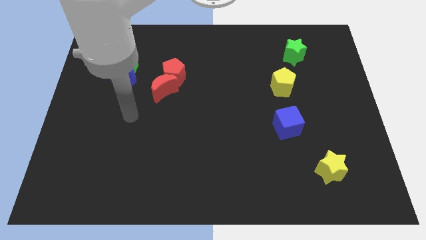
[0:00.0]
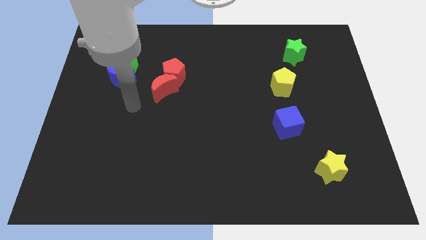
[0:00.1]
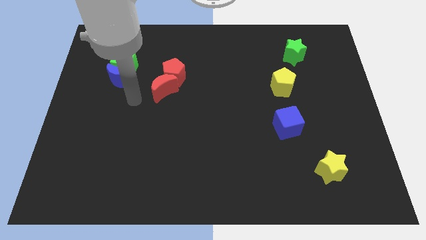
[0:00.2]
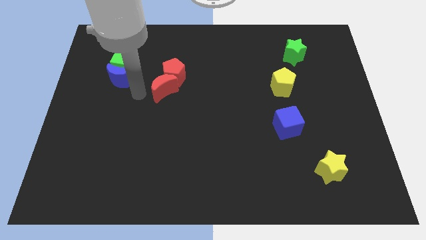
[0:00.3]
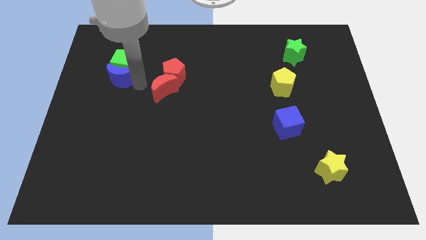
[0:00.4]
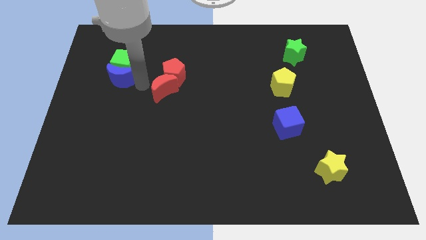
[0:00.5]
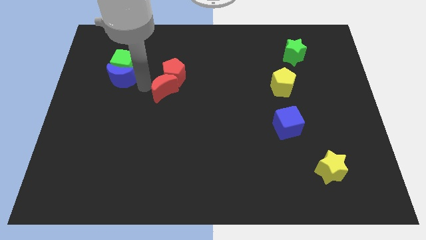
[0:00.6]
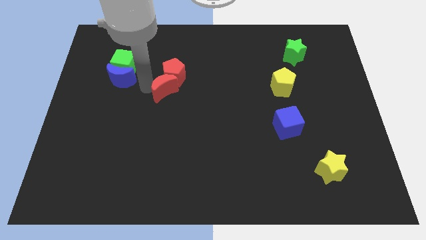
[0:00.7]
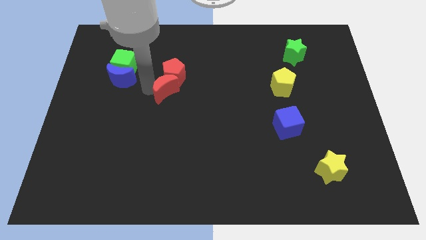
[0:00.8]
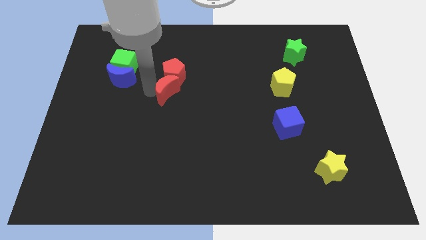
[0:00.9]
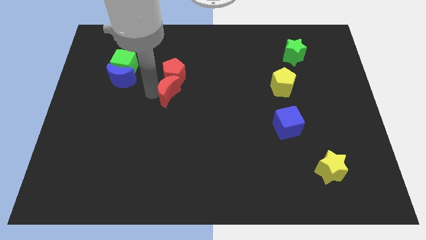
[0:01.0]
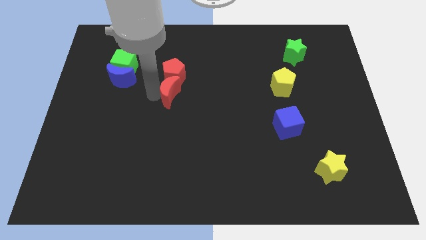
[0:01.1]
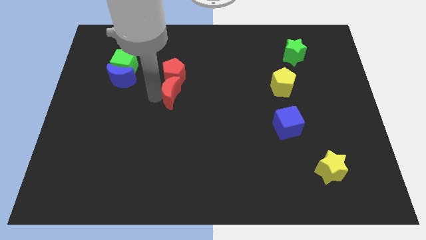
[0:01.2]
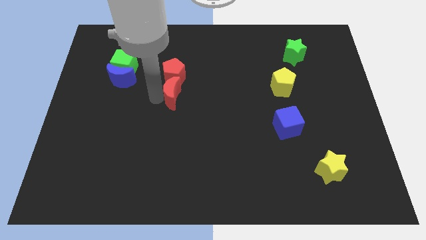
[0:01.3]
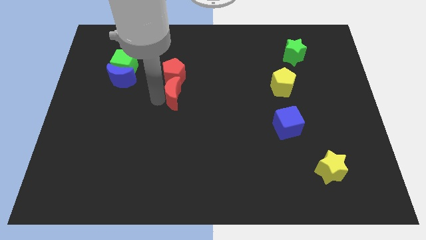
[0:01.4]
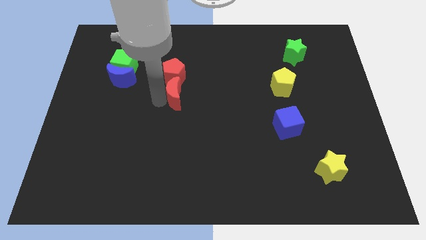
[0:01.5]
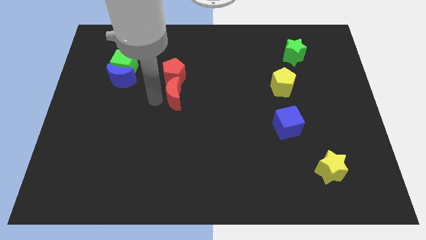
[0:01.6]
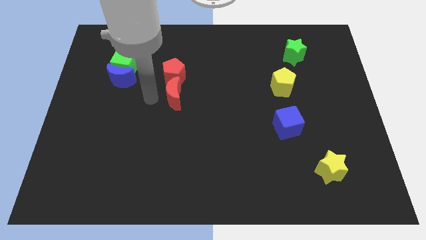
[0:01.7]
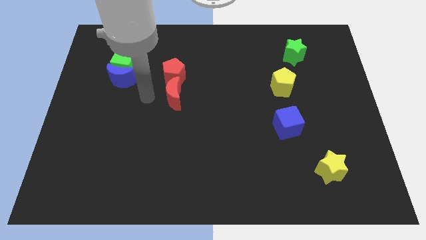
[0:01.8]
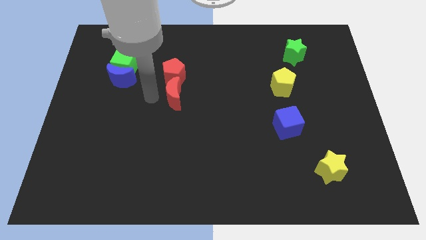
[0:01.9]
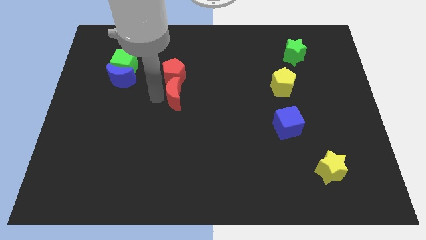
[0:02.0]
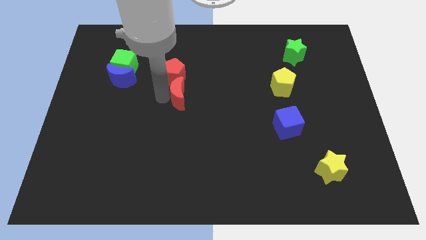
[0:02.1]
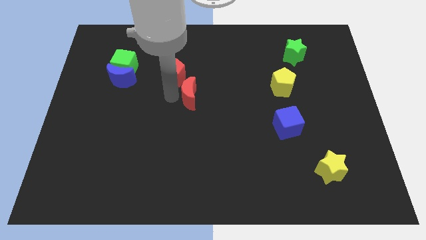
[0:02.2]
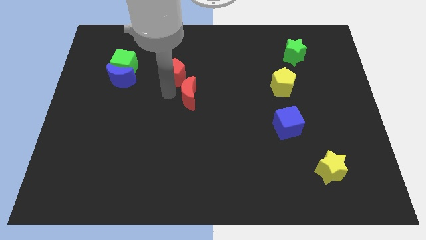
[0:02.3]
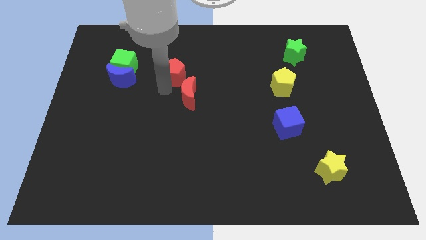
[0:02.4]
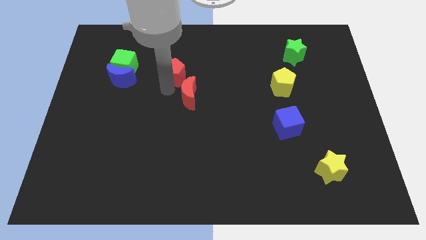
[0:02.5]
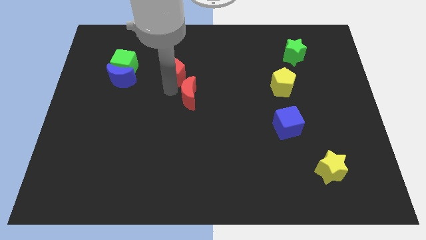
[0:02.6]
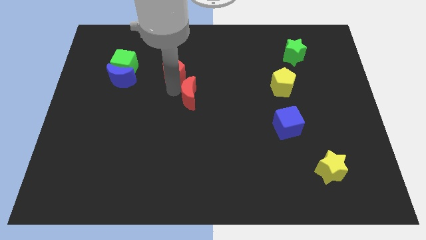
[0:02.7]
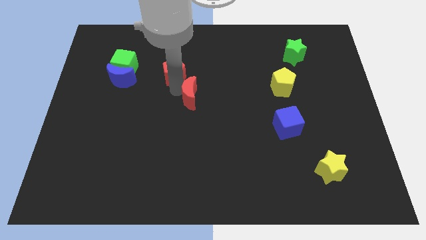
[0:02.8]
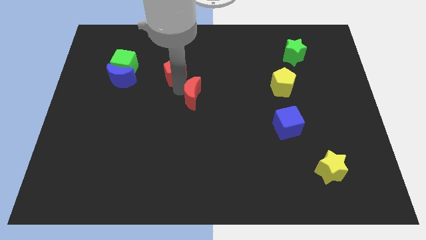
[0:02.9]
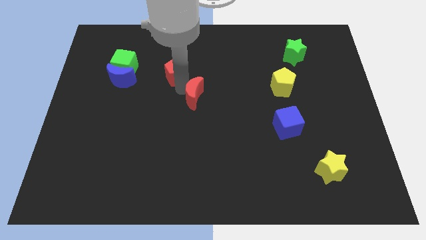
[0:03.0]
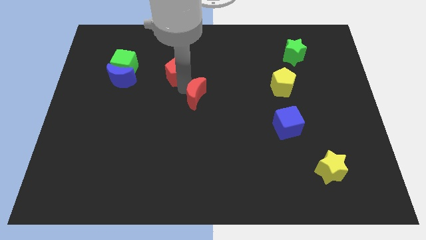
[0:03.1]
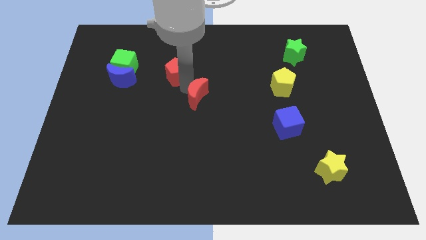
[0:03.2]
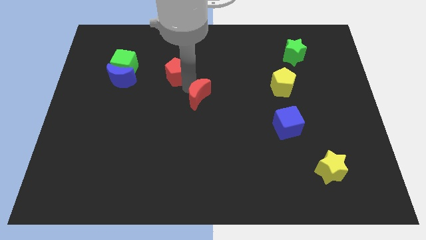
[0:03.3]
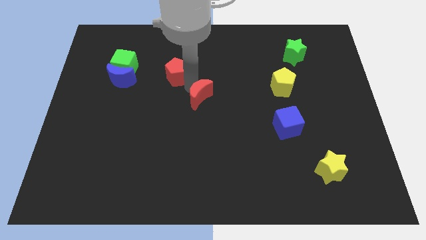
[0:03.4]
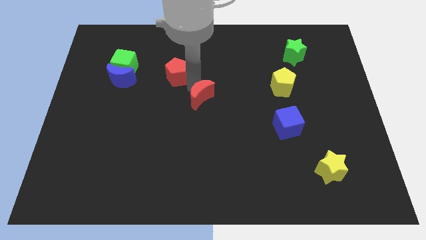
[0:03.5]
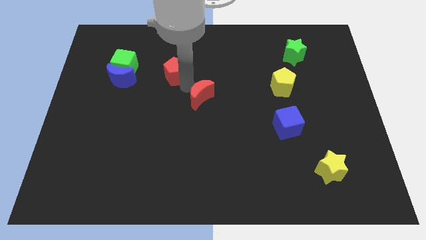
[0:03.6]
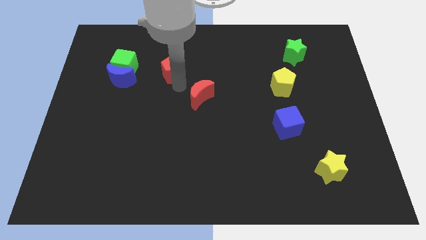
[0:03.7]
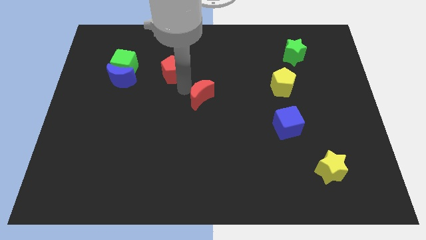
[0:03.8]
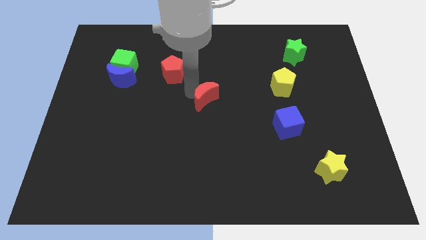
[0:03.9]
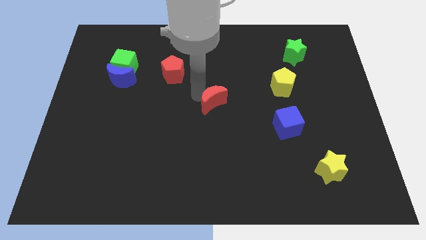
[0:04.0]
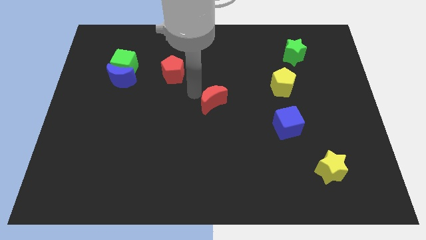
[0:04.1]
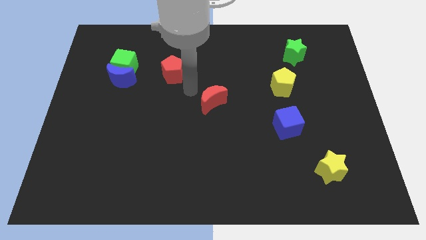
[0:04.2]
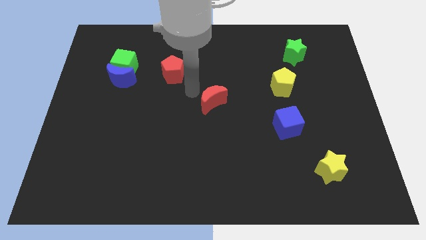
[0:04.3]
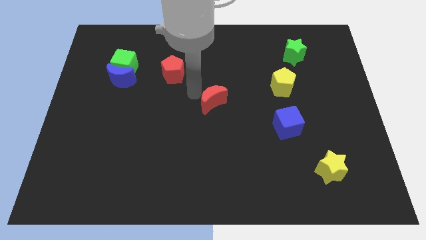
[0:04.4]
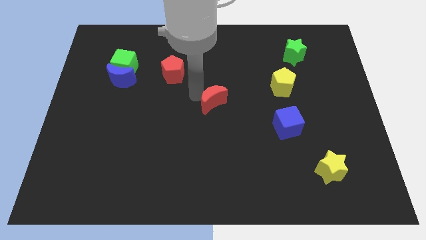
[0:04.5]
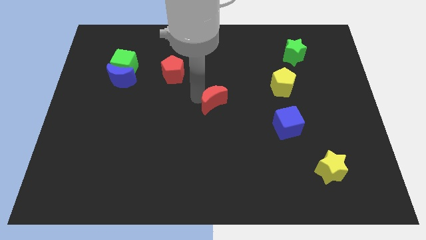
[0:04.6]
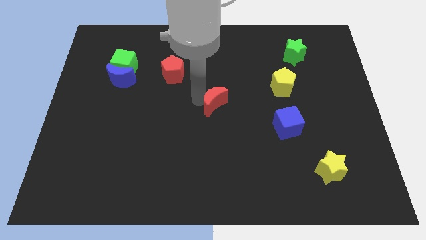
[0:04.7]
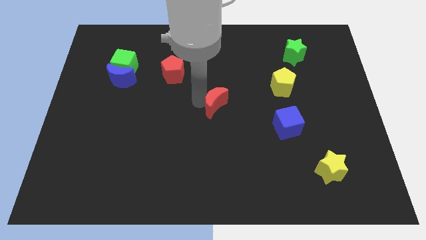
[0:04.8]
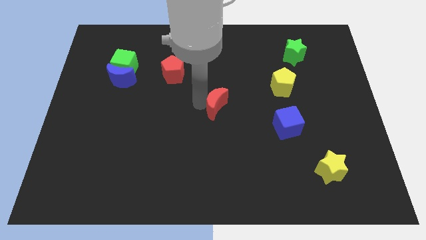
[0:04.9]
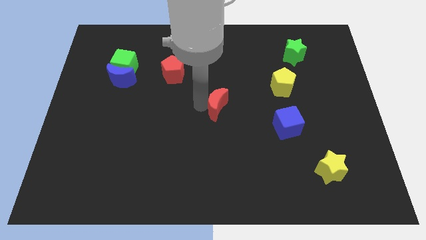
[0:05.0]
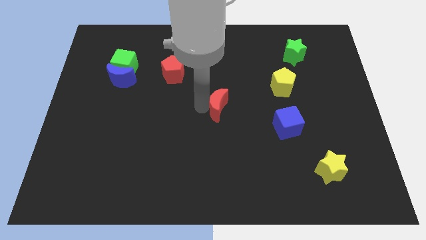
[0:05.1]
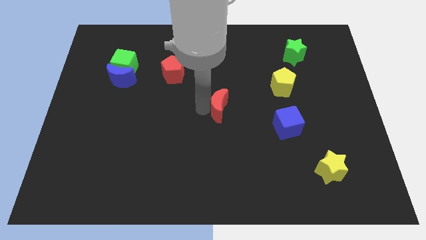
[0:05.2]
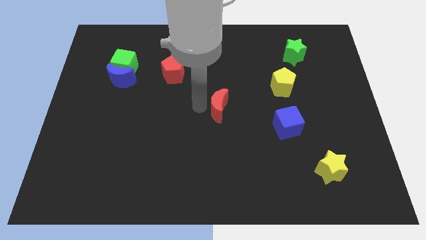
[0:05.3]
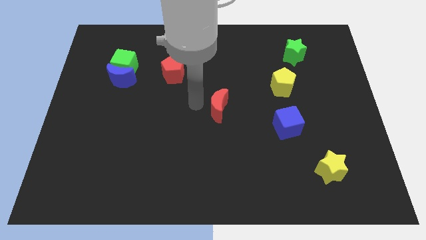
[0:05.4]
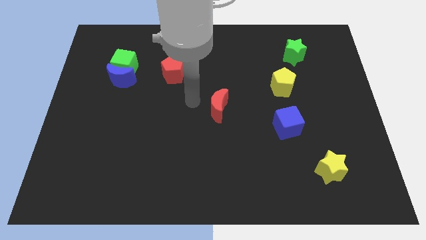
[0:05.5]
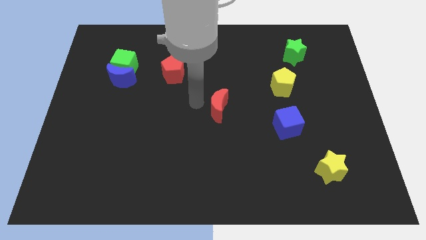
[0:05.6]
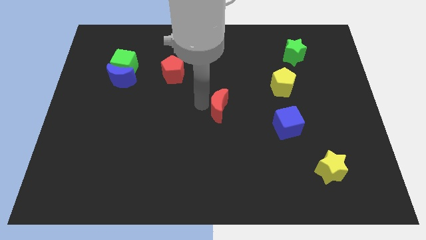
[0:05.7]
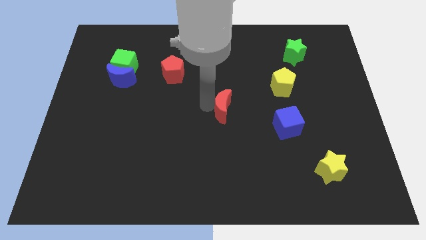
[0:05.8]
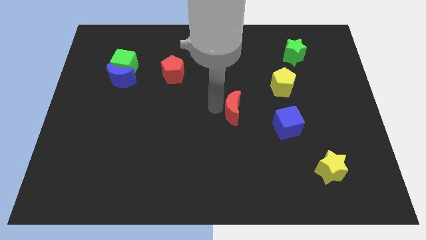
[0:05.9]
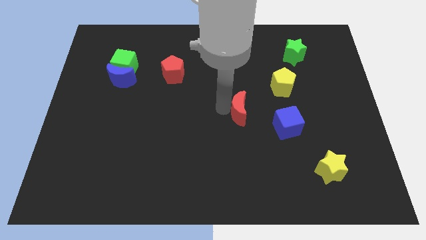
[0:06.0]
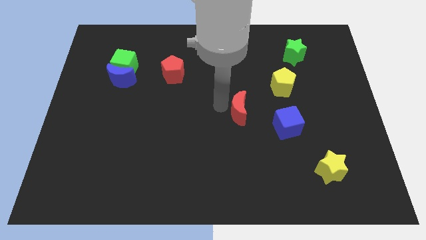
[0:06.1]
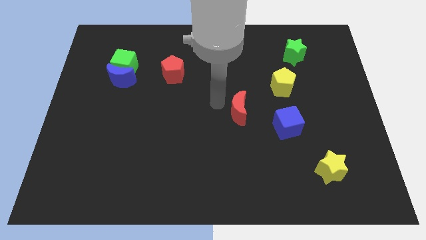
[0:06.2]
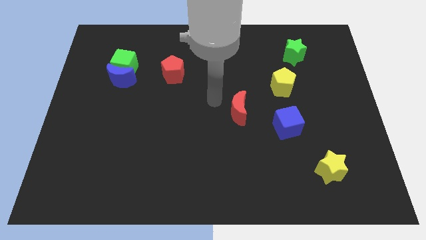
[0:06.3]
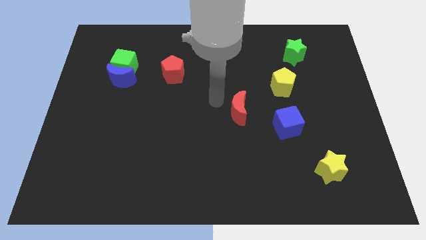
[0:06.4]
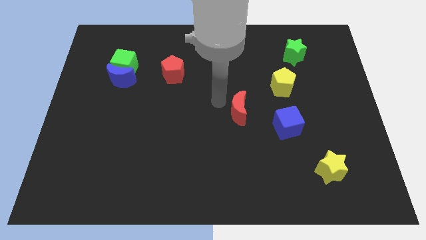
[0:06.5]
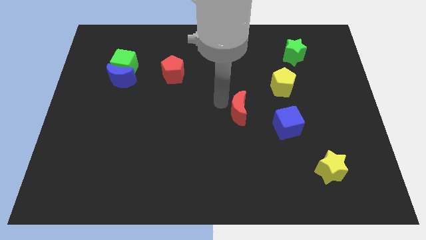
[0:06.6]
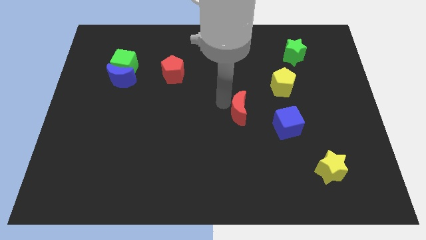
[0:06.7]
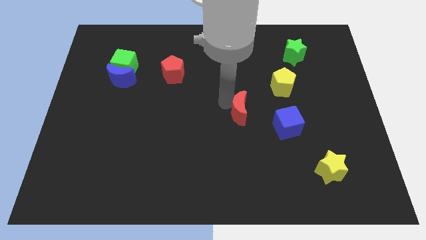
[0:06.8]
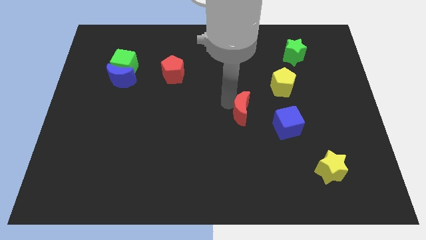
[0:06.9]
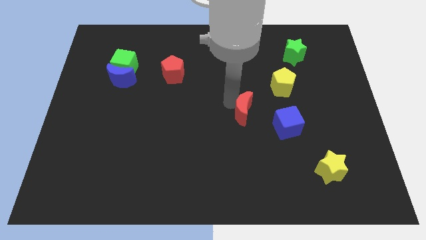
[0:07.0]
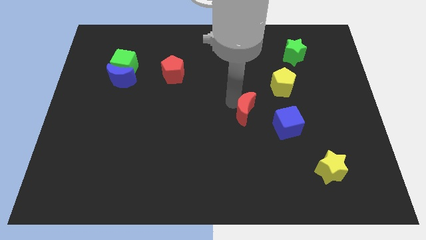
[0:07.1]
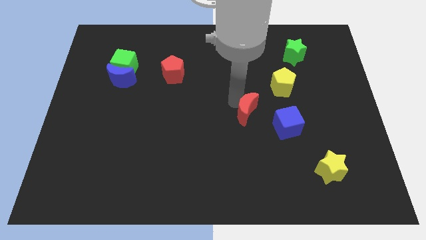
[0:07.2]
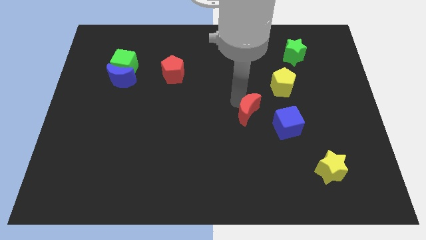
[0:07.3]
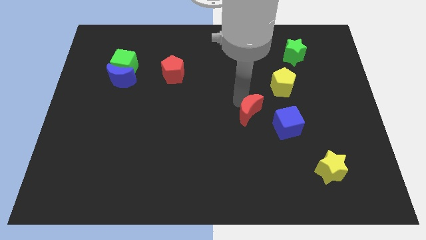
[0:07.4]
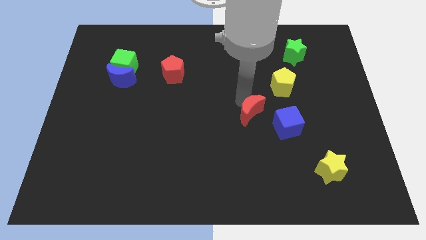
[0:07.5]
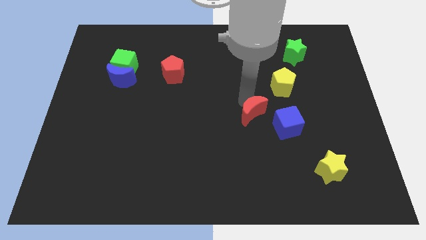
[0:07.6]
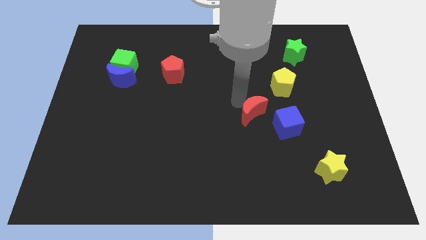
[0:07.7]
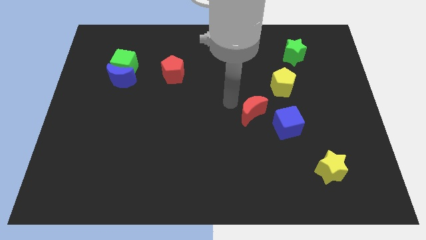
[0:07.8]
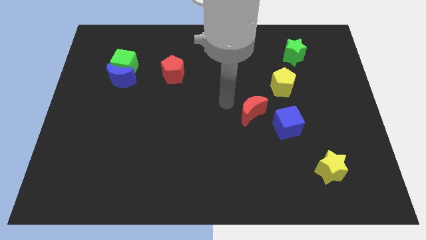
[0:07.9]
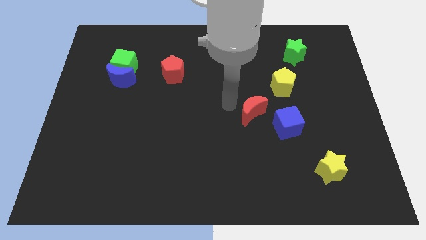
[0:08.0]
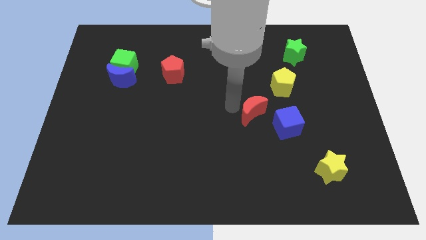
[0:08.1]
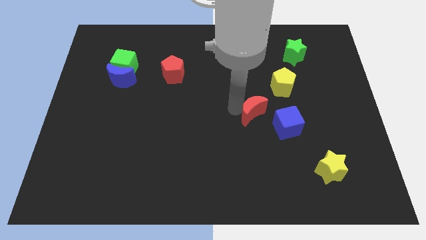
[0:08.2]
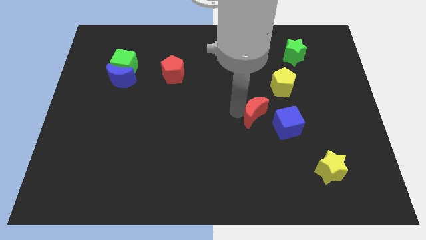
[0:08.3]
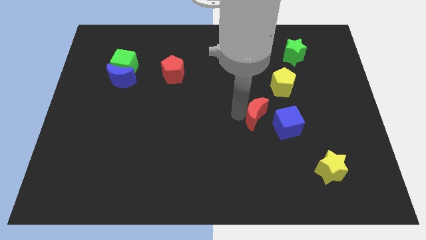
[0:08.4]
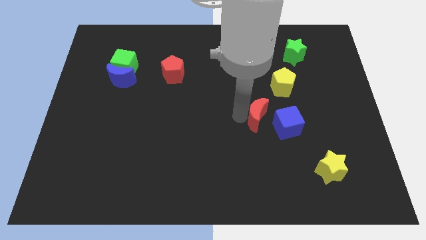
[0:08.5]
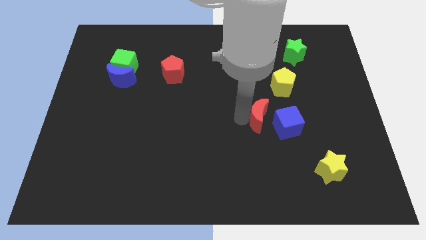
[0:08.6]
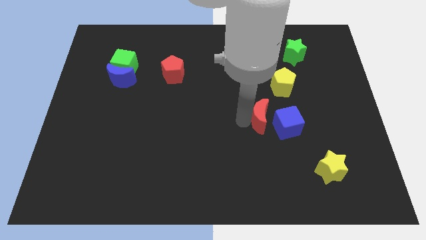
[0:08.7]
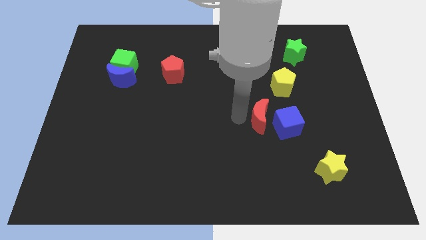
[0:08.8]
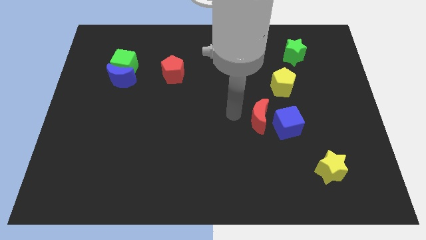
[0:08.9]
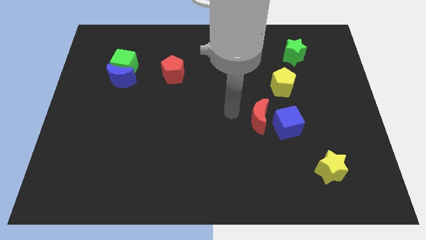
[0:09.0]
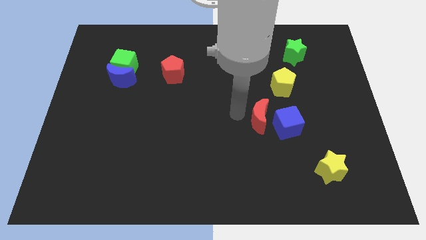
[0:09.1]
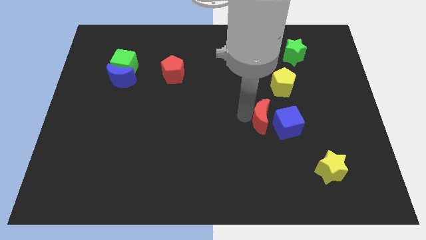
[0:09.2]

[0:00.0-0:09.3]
push the red moon next to the blue cube
